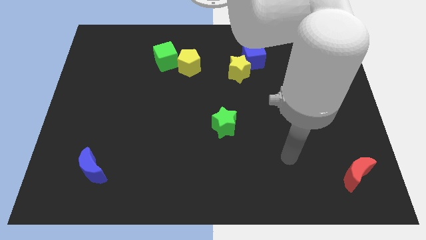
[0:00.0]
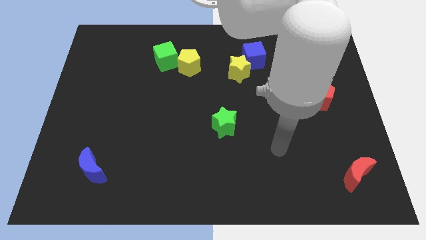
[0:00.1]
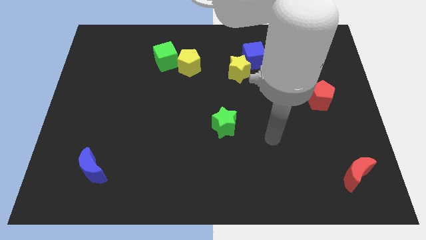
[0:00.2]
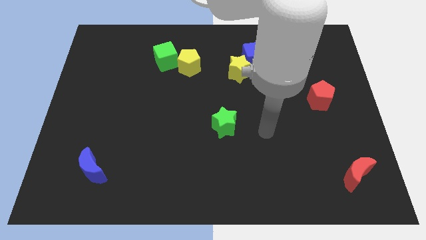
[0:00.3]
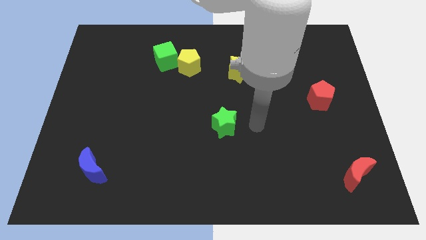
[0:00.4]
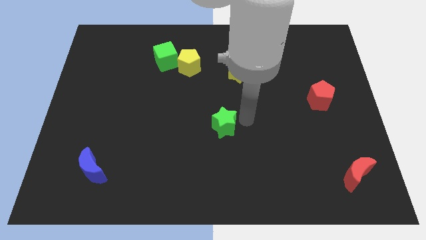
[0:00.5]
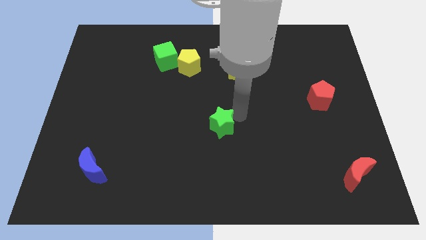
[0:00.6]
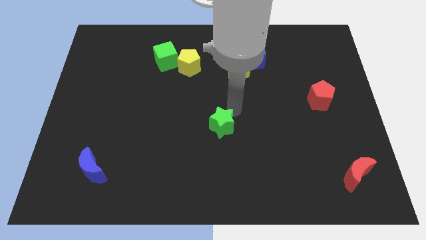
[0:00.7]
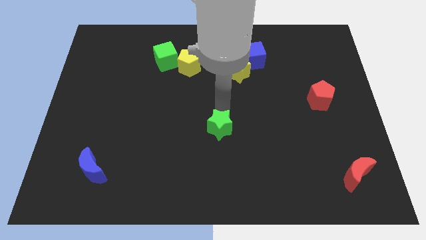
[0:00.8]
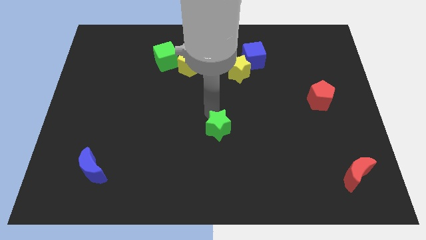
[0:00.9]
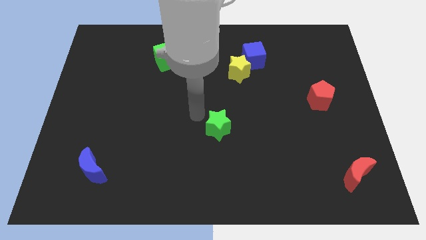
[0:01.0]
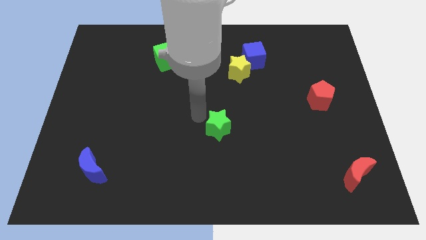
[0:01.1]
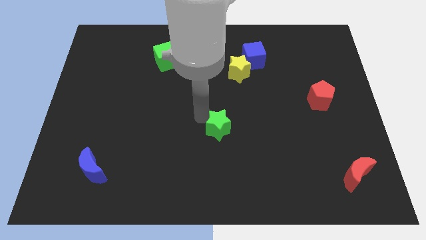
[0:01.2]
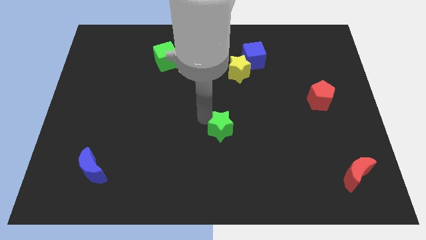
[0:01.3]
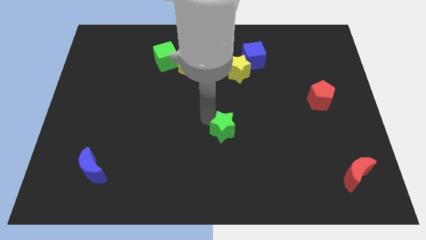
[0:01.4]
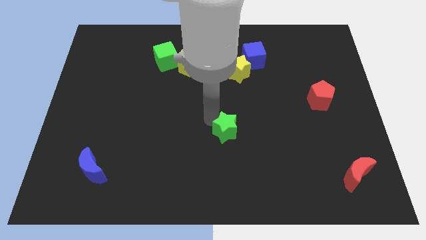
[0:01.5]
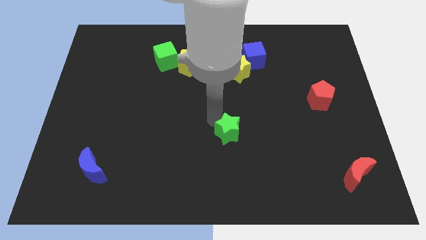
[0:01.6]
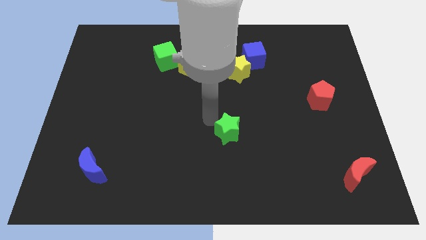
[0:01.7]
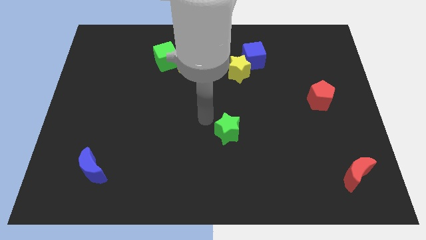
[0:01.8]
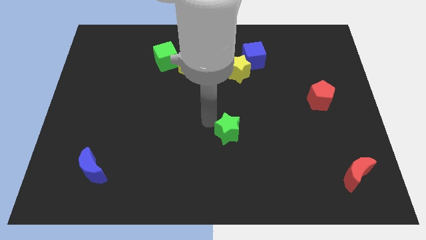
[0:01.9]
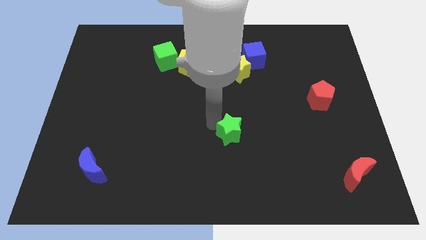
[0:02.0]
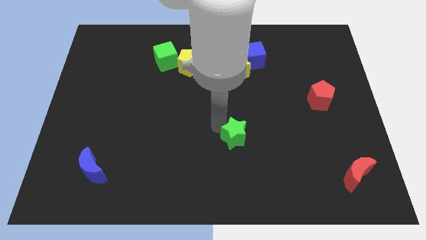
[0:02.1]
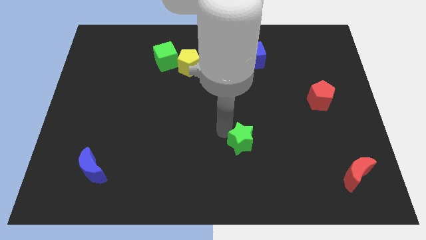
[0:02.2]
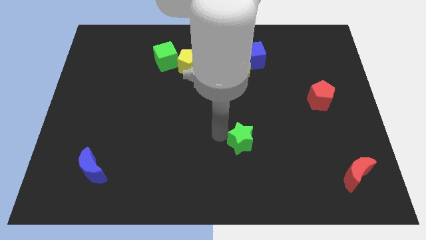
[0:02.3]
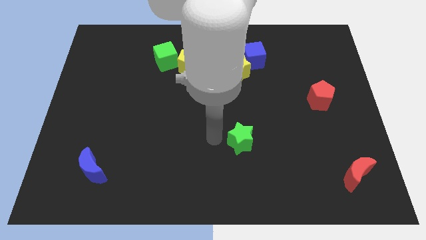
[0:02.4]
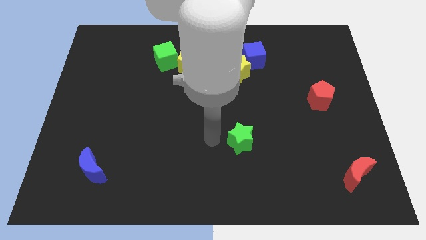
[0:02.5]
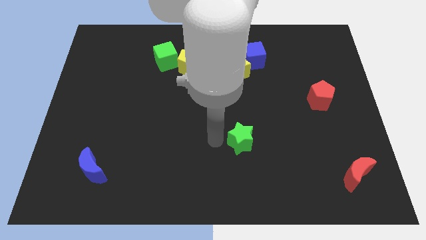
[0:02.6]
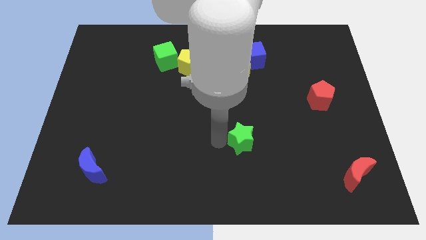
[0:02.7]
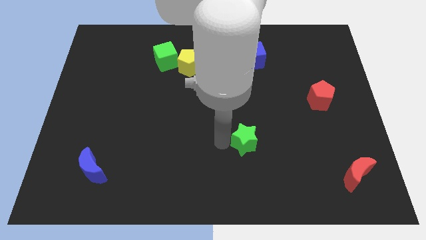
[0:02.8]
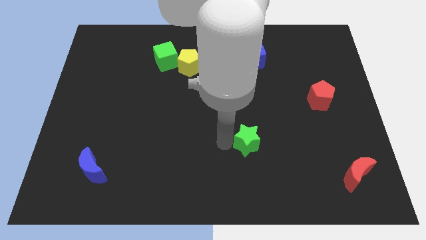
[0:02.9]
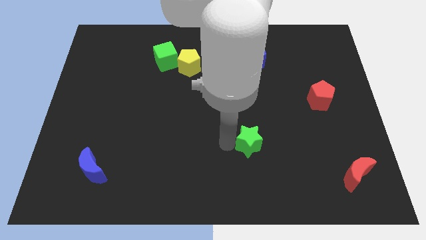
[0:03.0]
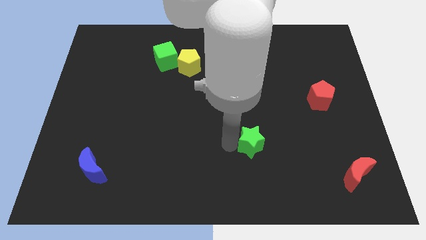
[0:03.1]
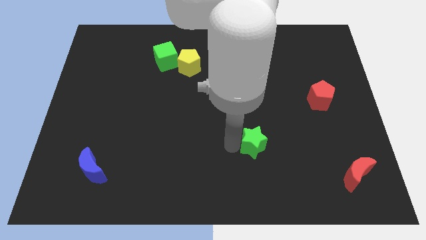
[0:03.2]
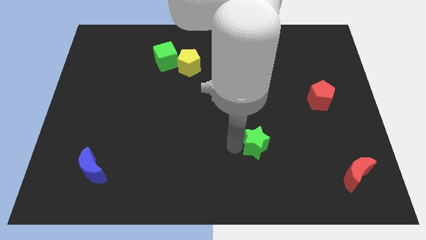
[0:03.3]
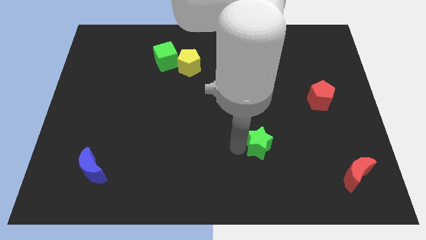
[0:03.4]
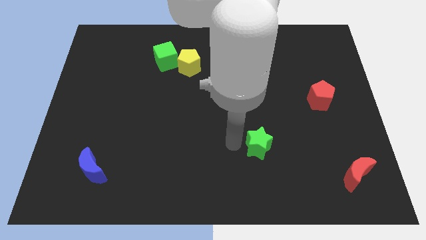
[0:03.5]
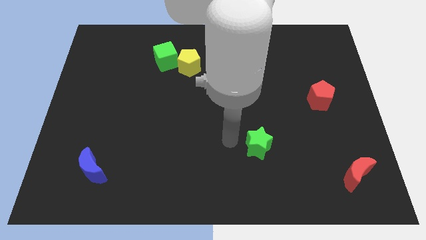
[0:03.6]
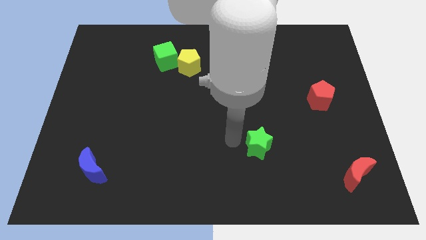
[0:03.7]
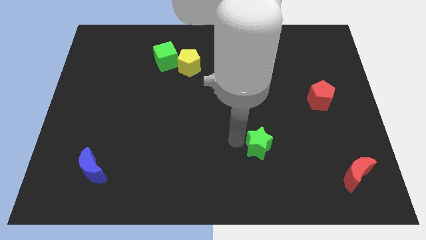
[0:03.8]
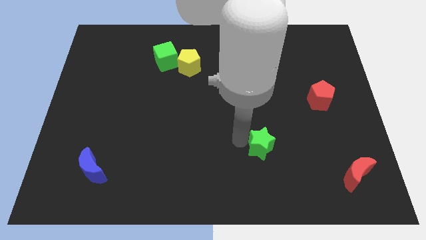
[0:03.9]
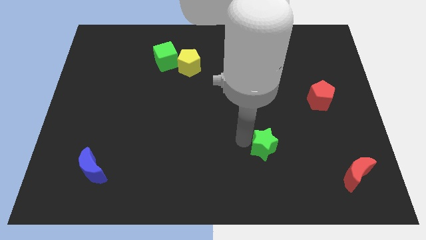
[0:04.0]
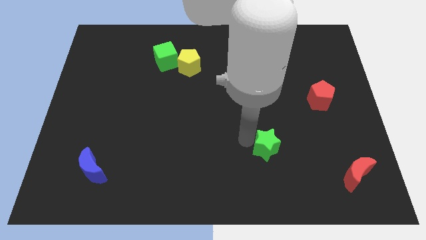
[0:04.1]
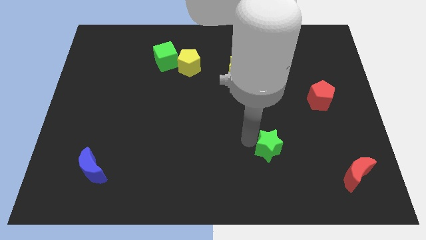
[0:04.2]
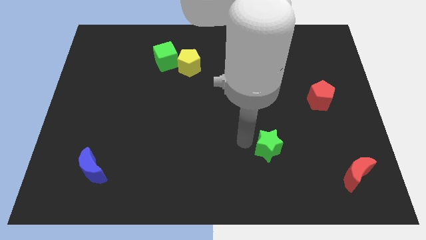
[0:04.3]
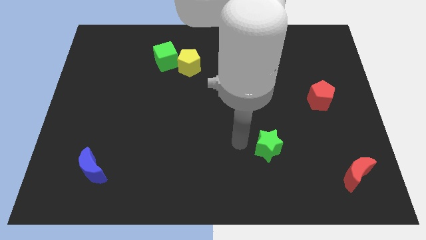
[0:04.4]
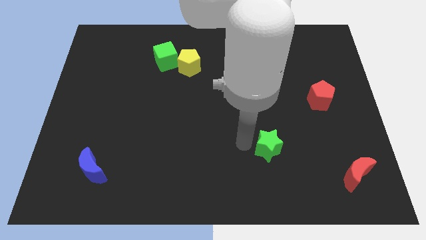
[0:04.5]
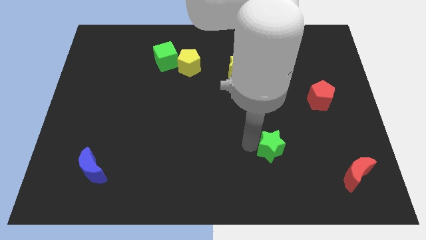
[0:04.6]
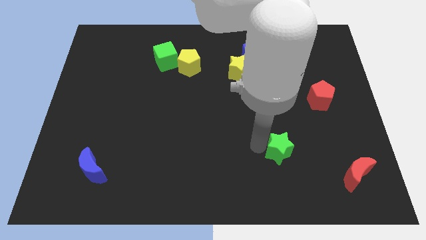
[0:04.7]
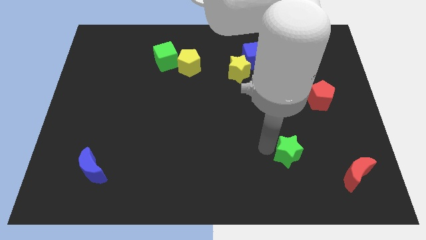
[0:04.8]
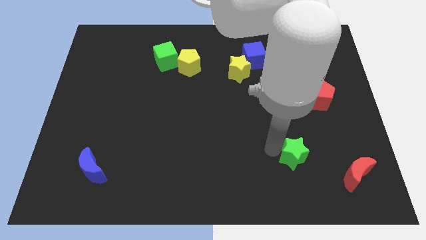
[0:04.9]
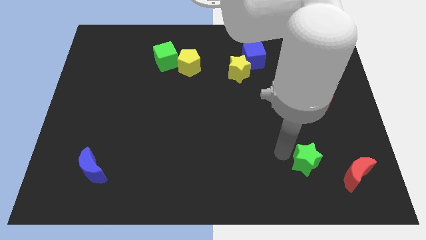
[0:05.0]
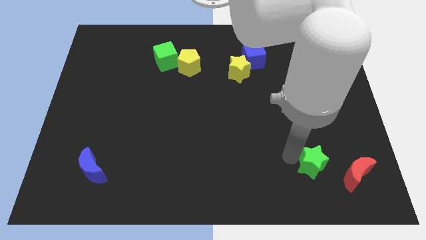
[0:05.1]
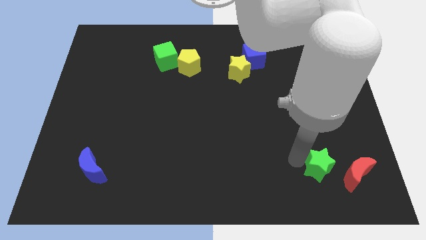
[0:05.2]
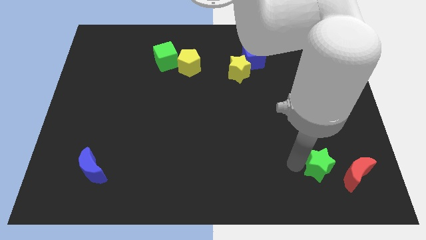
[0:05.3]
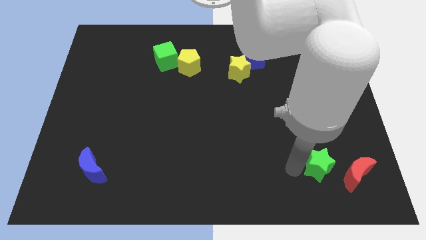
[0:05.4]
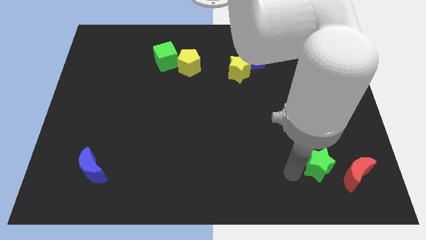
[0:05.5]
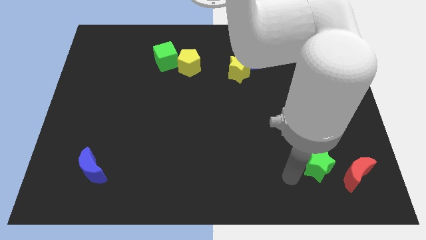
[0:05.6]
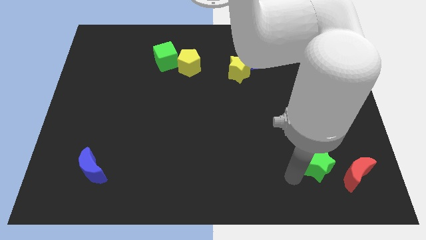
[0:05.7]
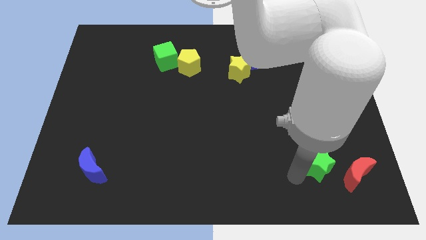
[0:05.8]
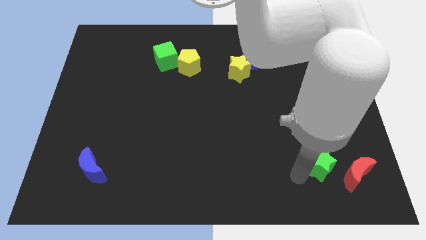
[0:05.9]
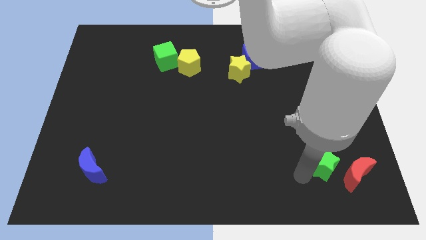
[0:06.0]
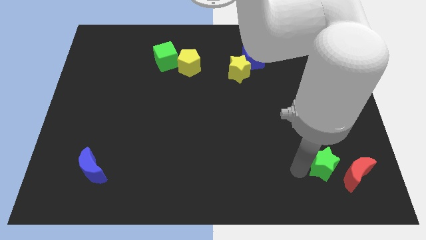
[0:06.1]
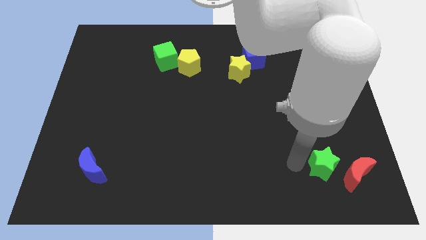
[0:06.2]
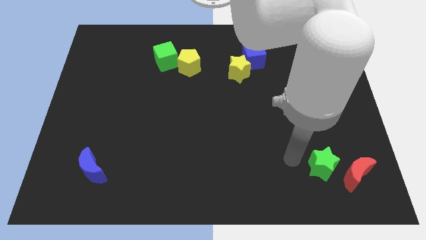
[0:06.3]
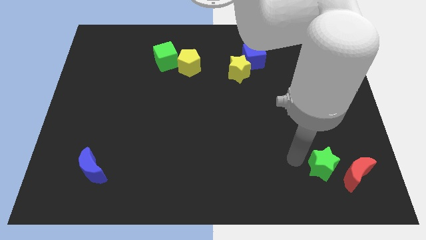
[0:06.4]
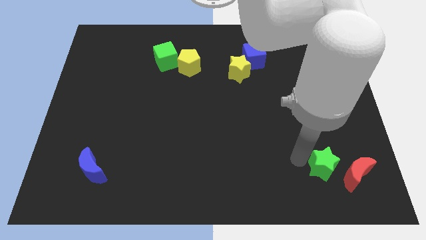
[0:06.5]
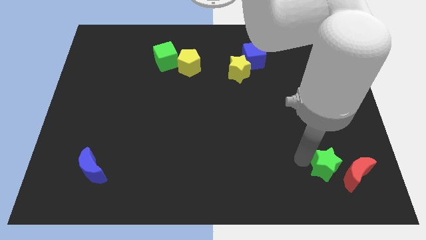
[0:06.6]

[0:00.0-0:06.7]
move the green star next to the red moon
